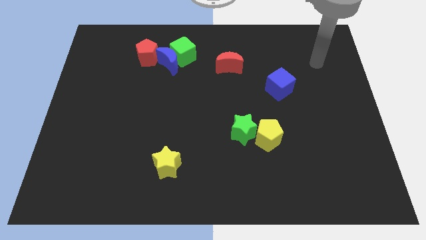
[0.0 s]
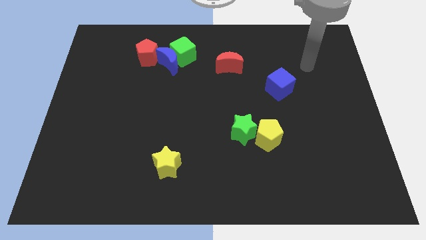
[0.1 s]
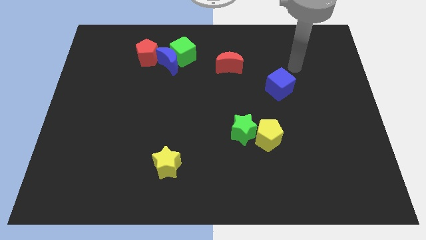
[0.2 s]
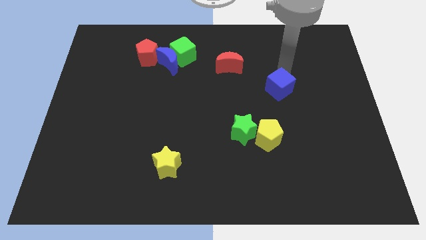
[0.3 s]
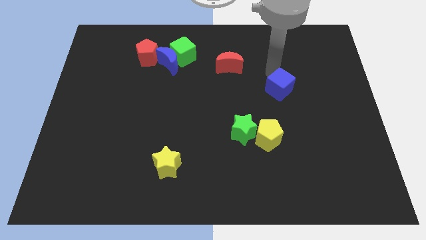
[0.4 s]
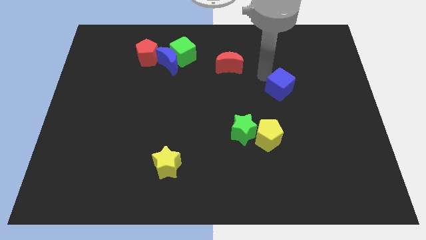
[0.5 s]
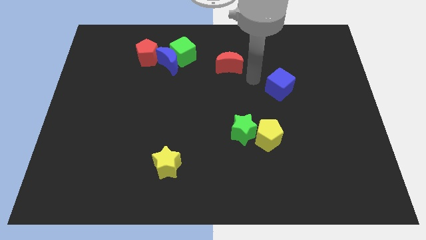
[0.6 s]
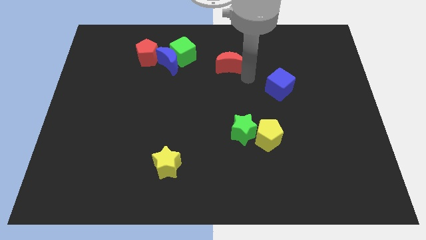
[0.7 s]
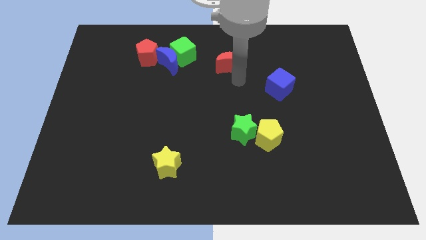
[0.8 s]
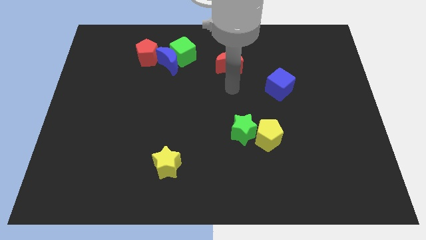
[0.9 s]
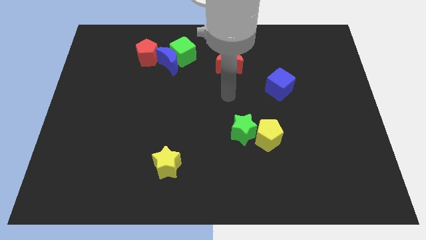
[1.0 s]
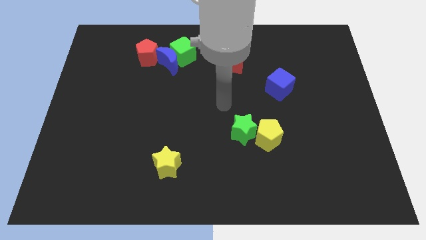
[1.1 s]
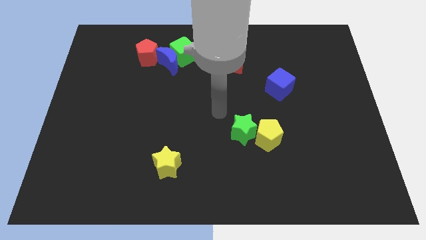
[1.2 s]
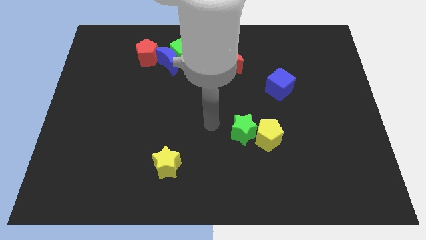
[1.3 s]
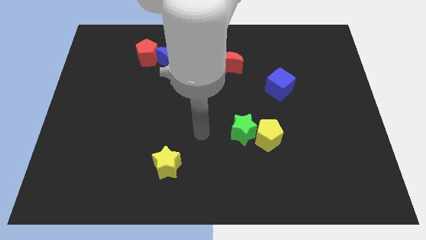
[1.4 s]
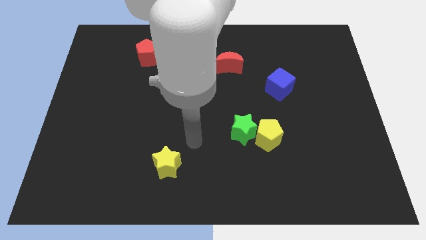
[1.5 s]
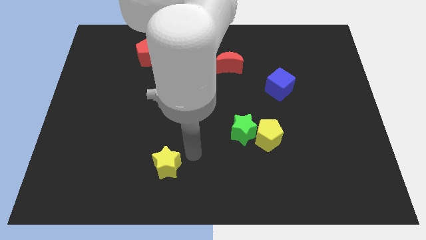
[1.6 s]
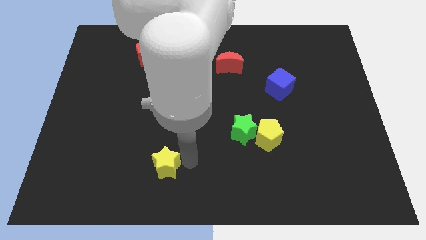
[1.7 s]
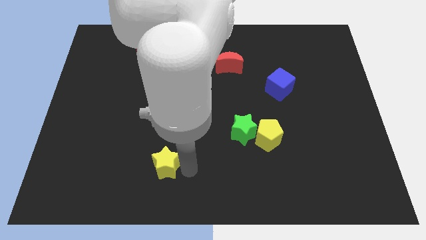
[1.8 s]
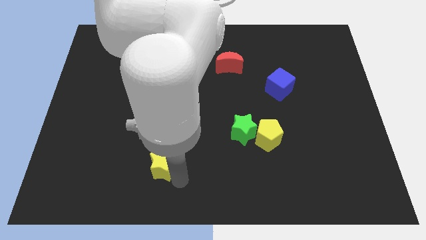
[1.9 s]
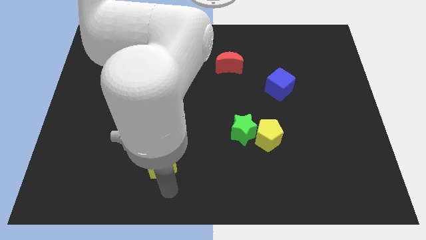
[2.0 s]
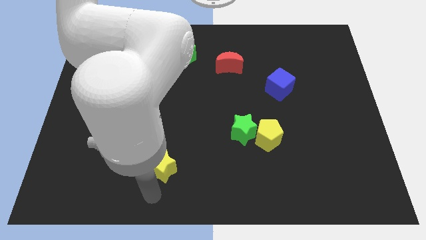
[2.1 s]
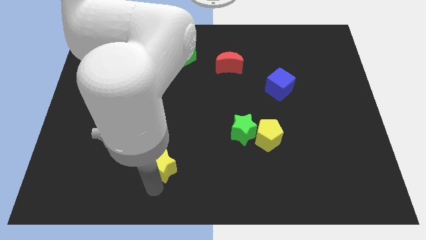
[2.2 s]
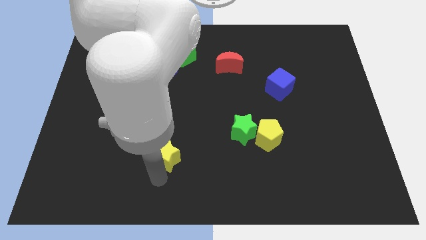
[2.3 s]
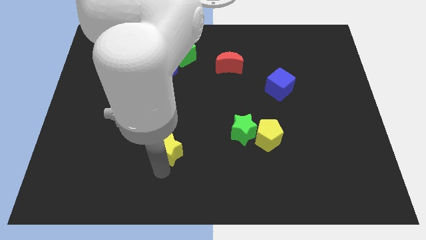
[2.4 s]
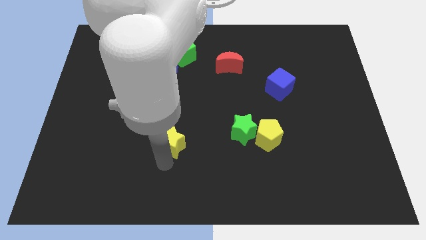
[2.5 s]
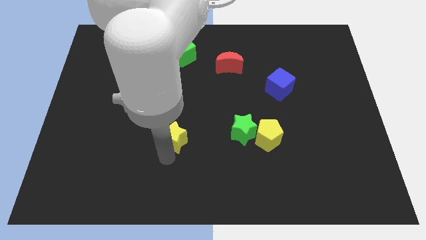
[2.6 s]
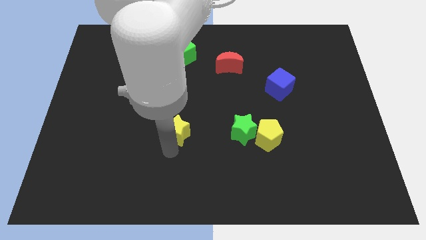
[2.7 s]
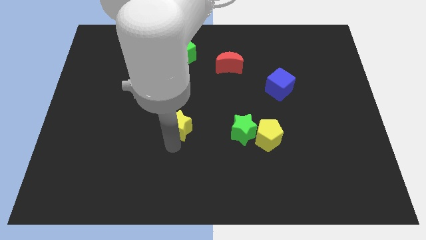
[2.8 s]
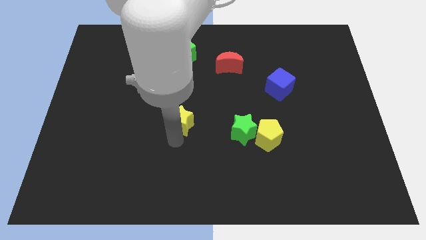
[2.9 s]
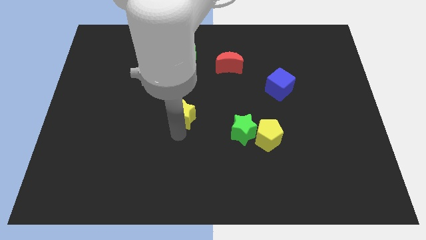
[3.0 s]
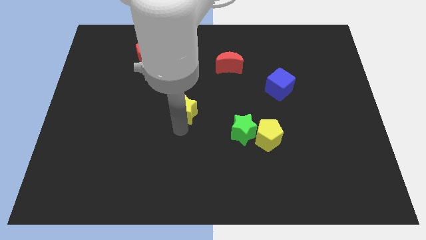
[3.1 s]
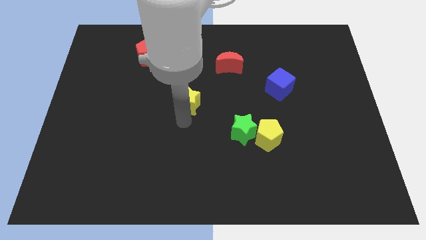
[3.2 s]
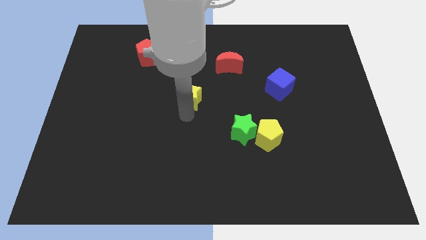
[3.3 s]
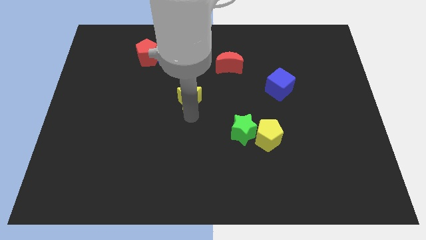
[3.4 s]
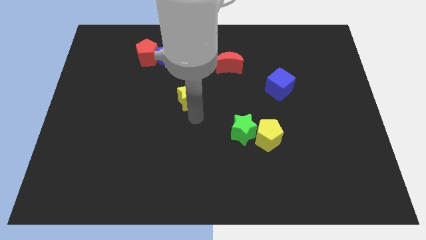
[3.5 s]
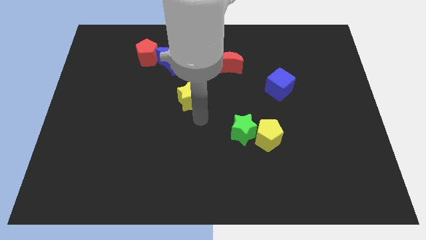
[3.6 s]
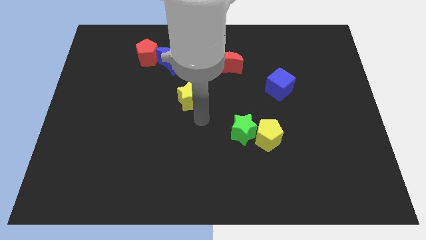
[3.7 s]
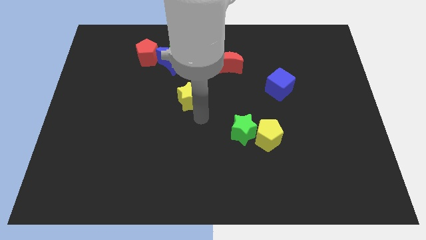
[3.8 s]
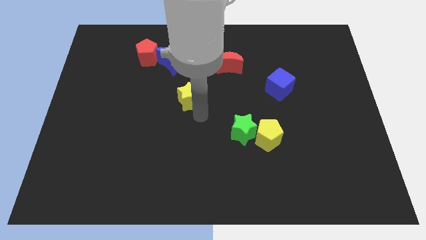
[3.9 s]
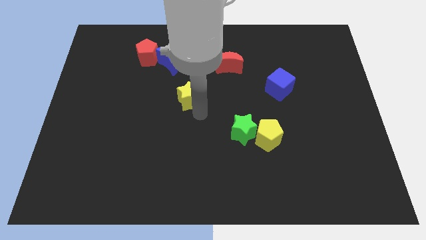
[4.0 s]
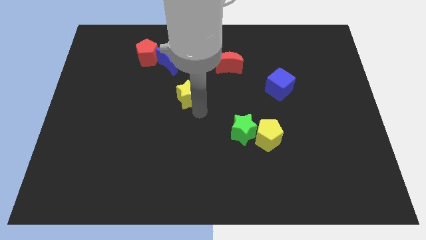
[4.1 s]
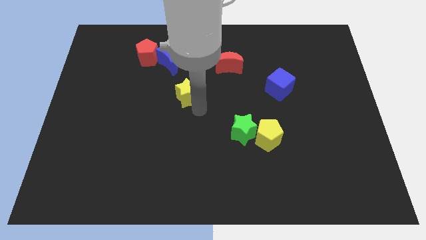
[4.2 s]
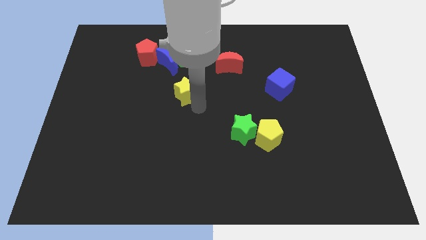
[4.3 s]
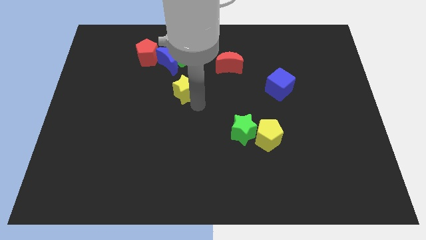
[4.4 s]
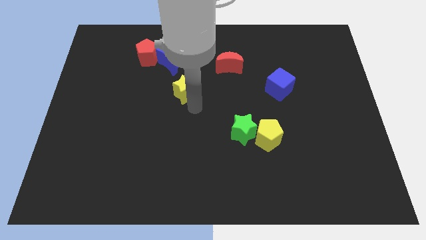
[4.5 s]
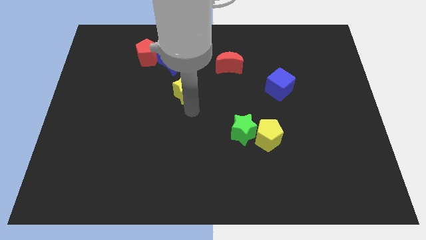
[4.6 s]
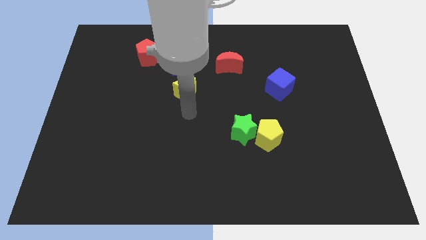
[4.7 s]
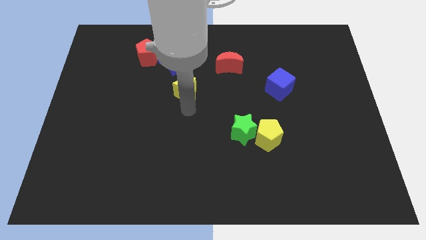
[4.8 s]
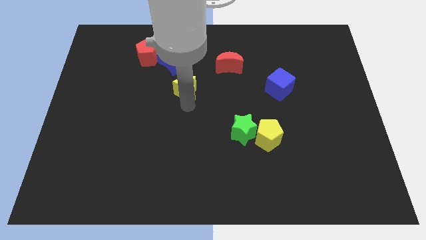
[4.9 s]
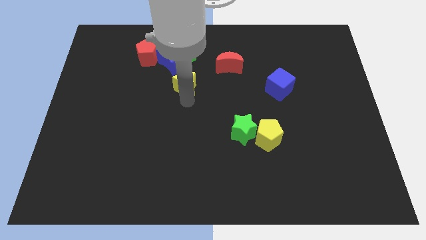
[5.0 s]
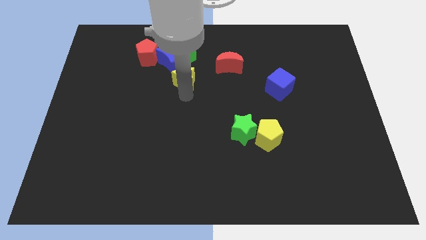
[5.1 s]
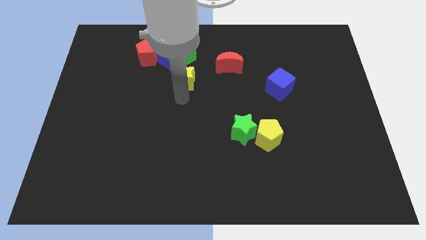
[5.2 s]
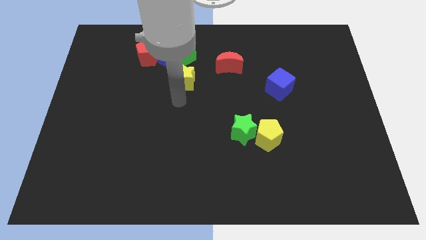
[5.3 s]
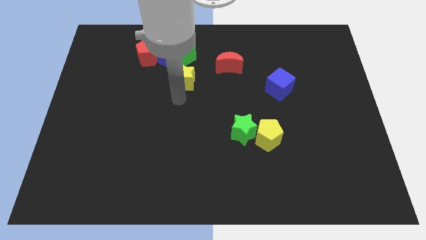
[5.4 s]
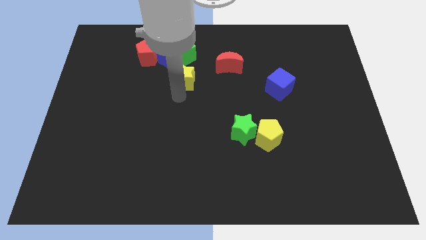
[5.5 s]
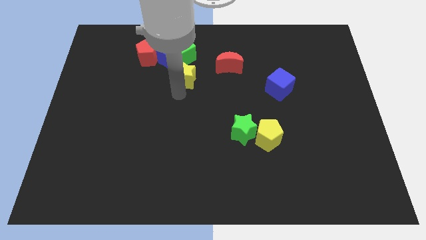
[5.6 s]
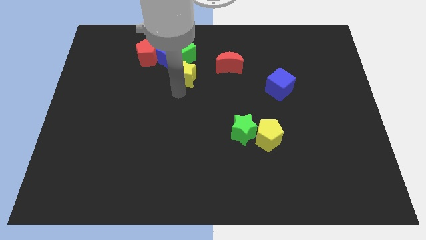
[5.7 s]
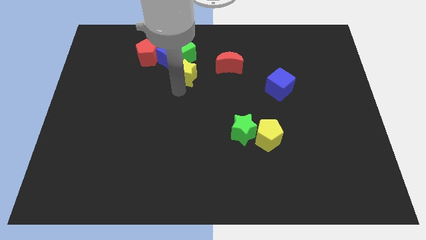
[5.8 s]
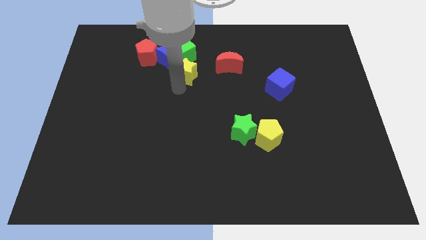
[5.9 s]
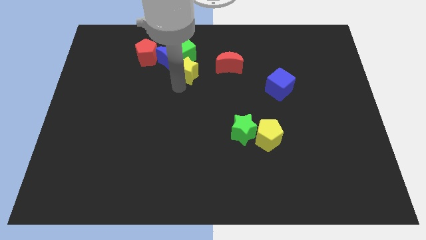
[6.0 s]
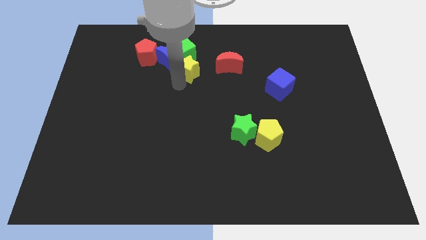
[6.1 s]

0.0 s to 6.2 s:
push the yellow star to the green cube
